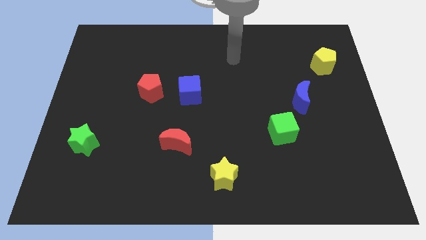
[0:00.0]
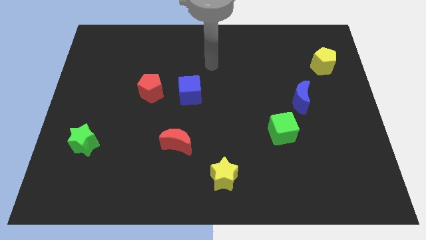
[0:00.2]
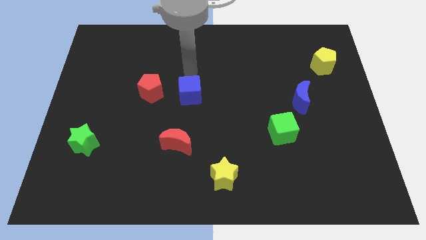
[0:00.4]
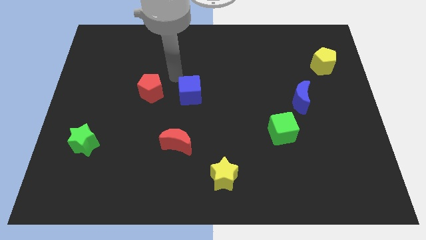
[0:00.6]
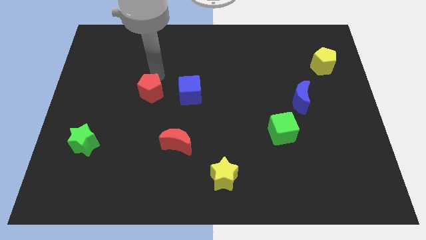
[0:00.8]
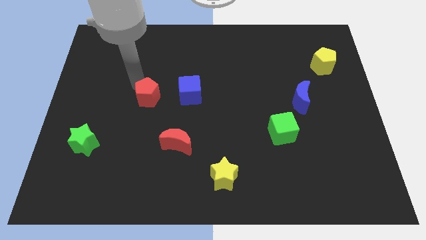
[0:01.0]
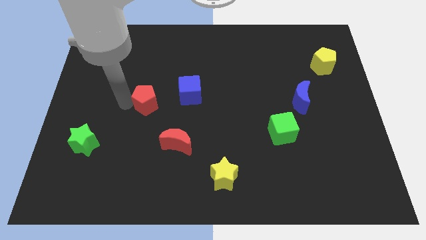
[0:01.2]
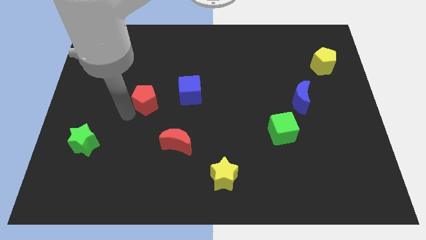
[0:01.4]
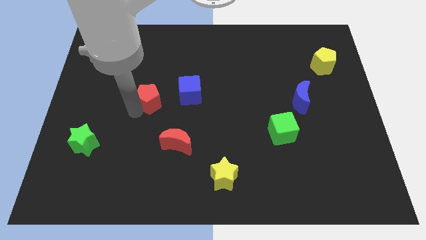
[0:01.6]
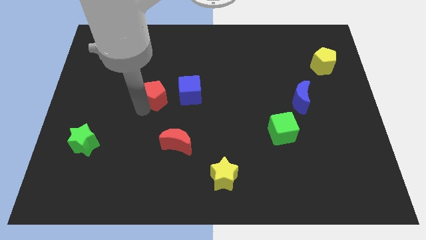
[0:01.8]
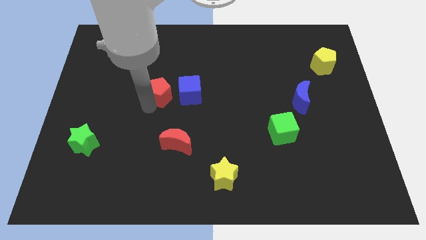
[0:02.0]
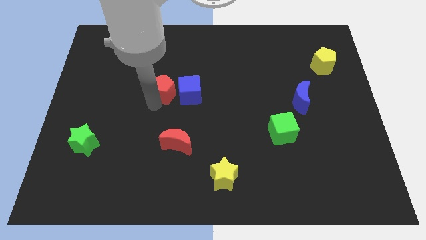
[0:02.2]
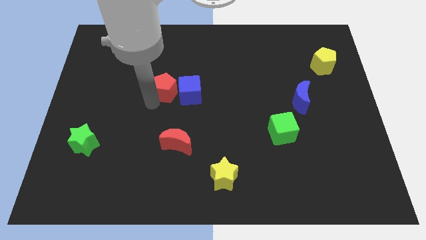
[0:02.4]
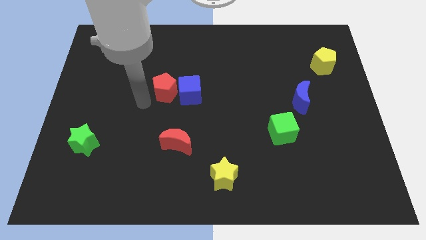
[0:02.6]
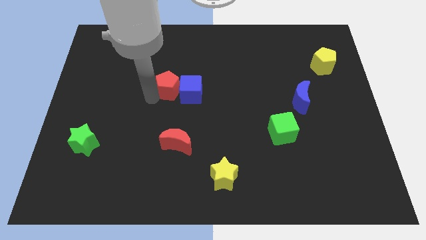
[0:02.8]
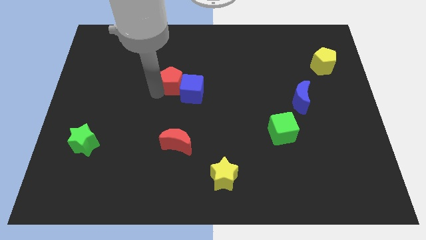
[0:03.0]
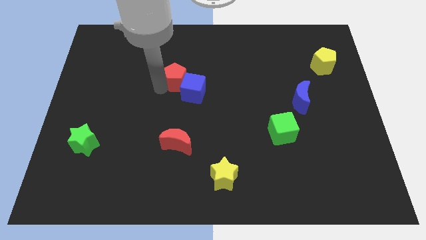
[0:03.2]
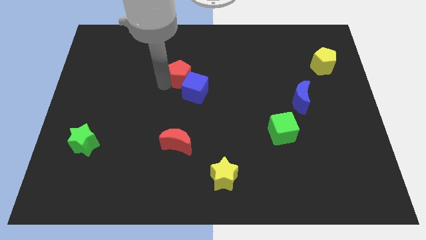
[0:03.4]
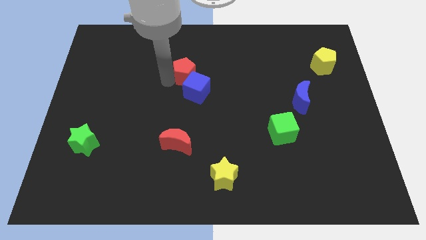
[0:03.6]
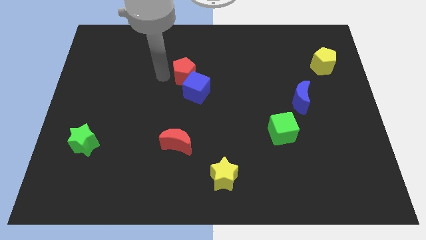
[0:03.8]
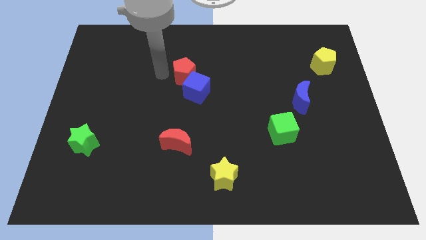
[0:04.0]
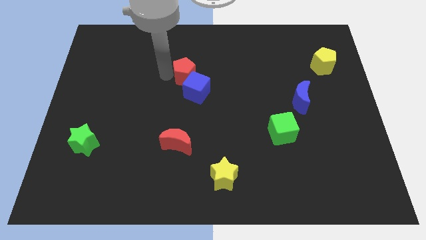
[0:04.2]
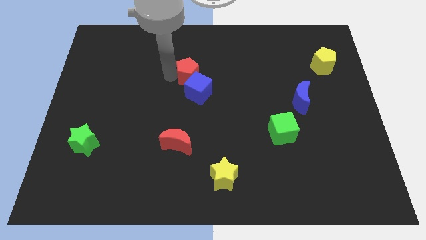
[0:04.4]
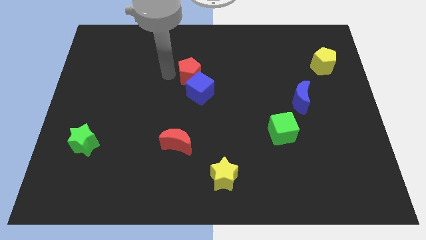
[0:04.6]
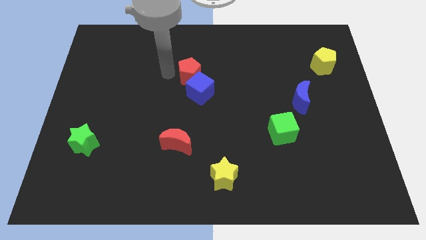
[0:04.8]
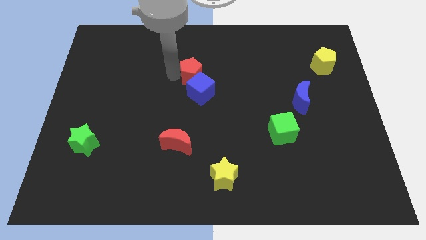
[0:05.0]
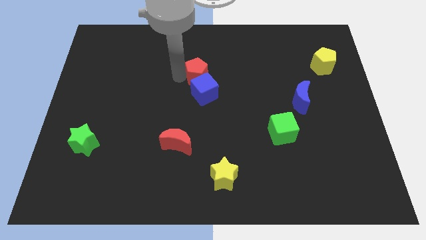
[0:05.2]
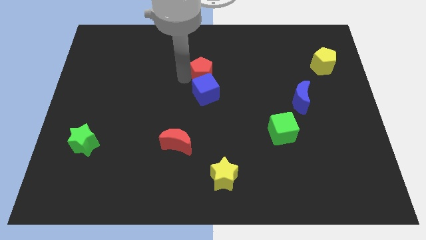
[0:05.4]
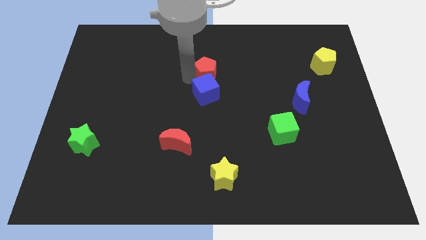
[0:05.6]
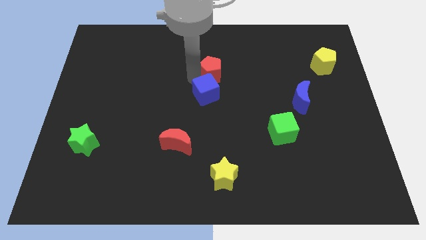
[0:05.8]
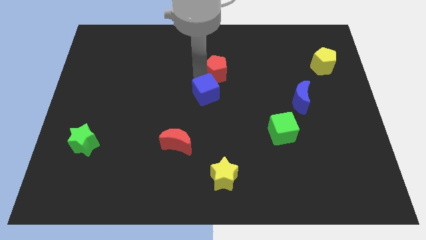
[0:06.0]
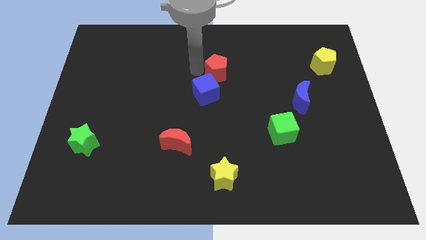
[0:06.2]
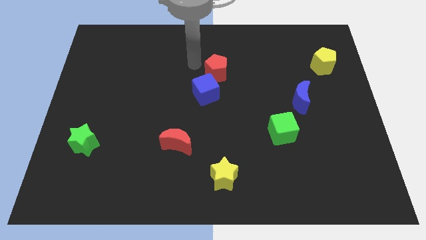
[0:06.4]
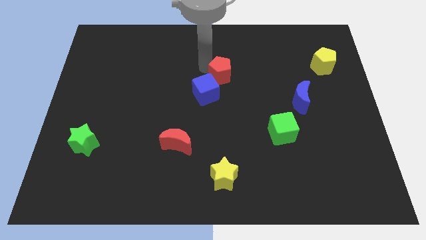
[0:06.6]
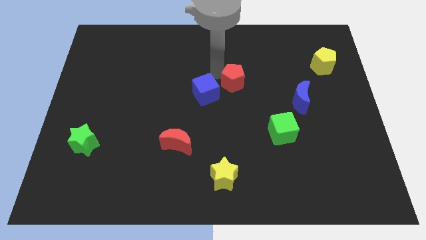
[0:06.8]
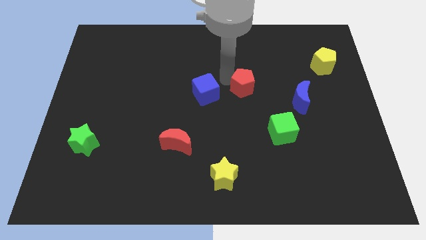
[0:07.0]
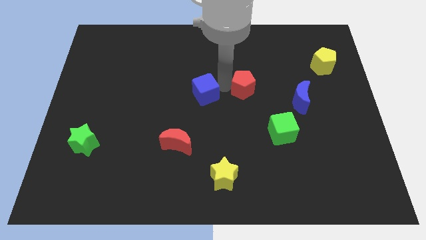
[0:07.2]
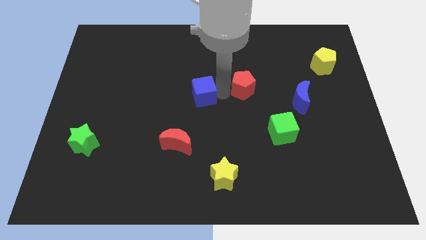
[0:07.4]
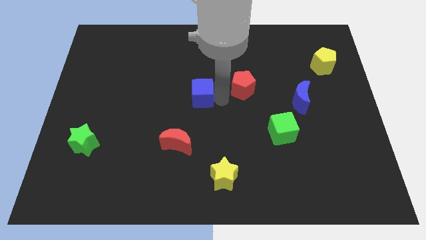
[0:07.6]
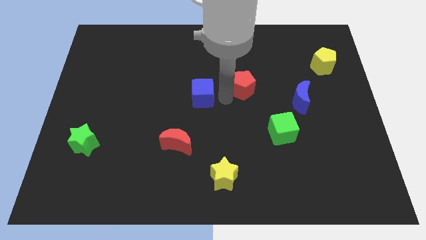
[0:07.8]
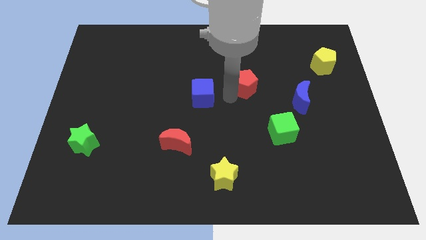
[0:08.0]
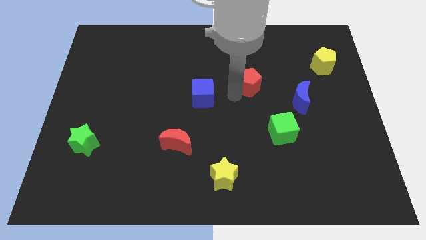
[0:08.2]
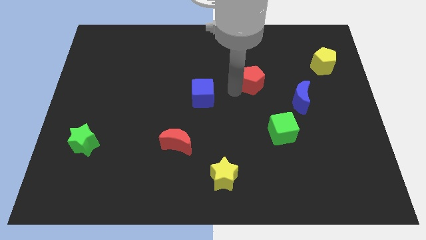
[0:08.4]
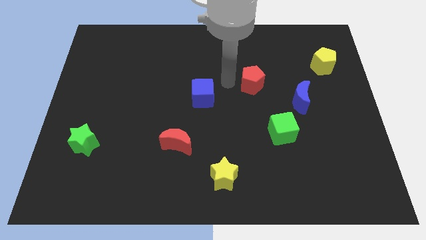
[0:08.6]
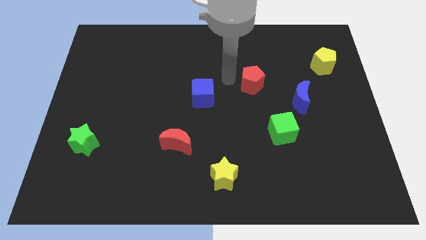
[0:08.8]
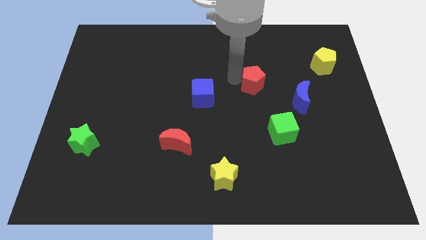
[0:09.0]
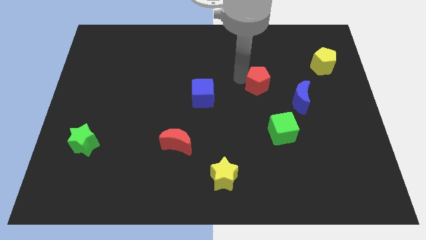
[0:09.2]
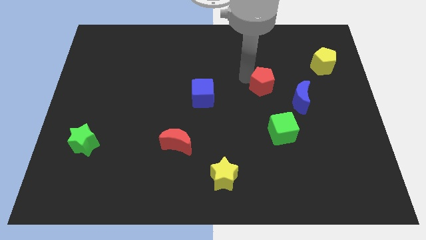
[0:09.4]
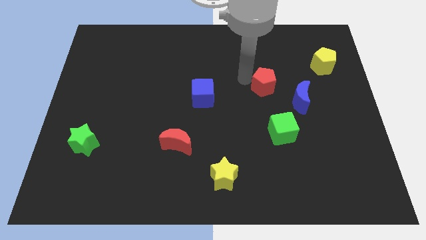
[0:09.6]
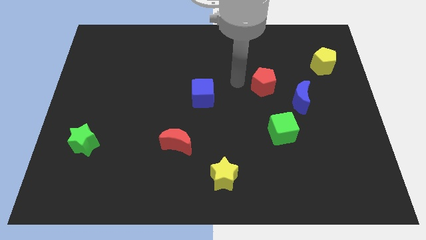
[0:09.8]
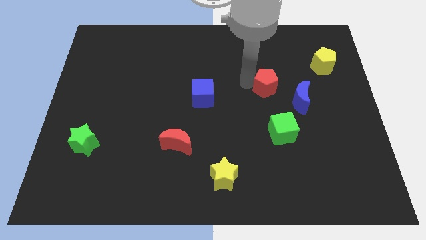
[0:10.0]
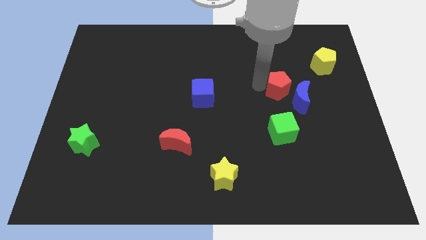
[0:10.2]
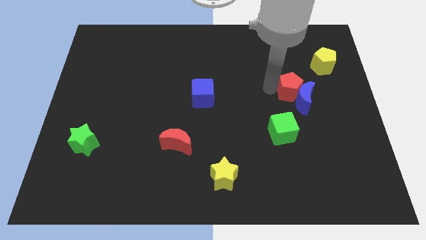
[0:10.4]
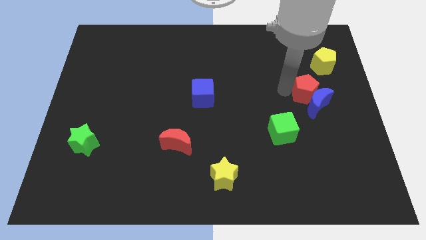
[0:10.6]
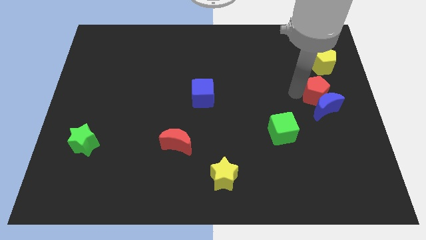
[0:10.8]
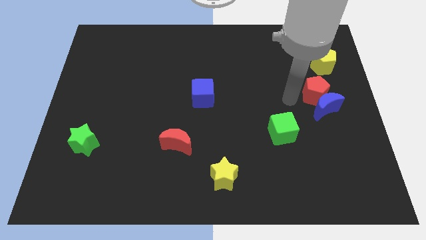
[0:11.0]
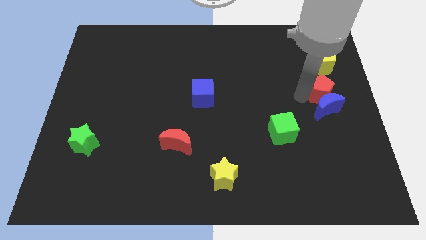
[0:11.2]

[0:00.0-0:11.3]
move the red pentagon to the right side of the board

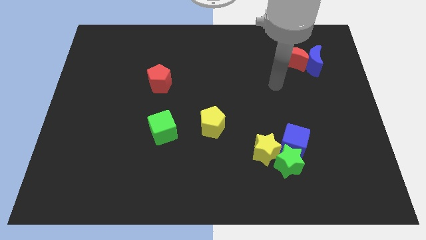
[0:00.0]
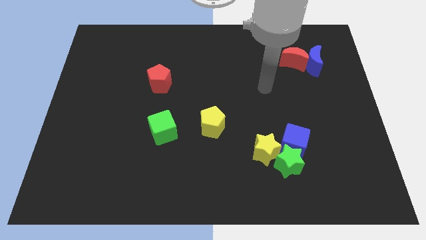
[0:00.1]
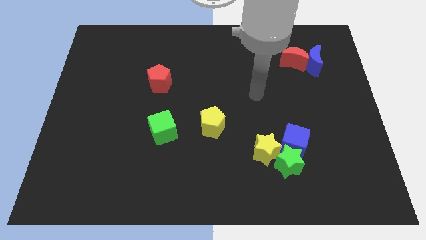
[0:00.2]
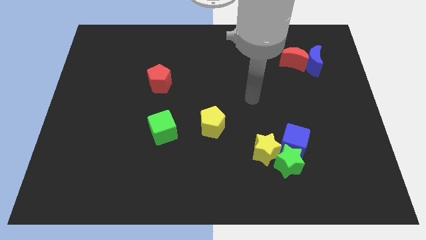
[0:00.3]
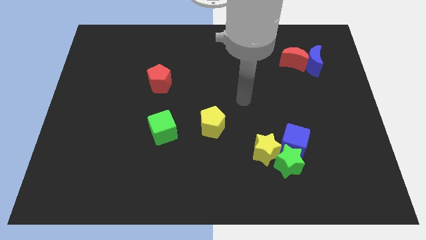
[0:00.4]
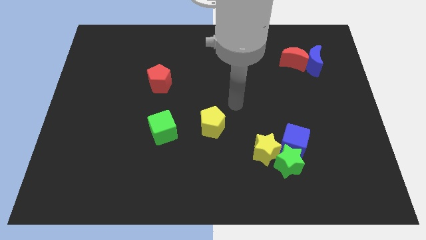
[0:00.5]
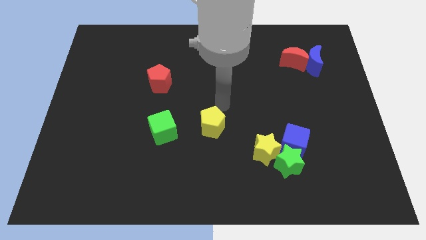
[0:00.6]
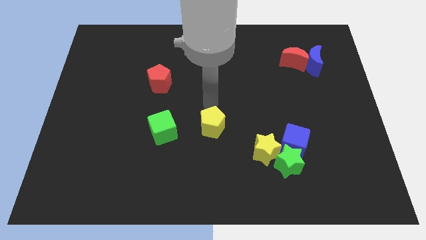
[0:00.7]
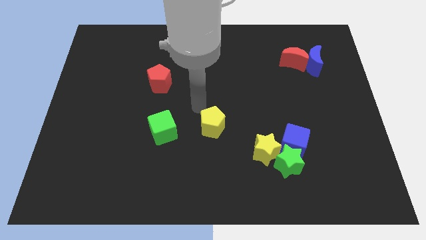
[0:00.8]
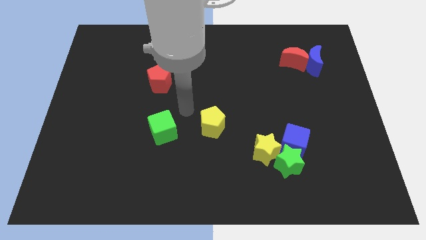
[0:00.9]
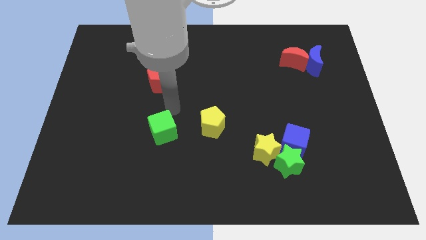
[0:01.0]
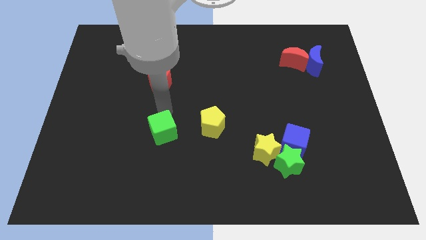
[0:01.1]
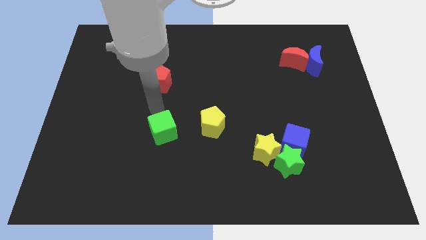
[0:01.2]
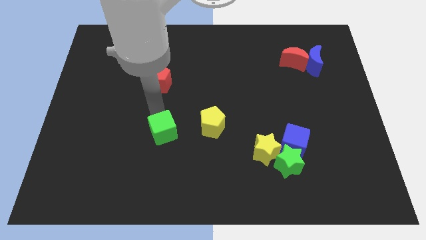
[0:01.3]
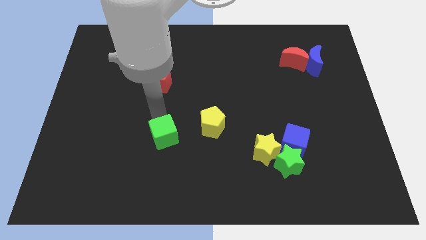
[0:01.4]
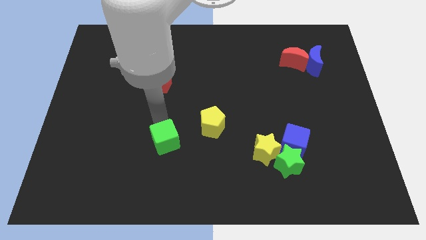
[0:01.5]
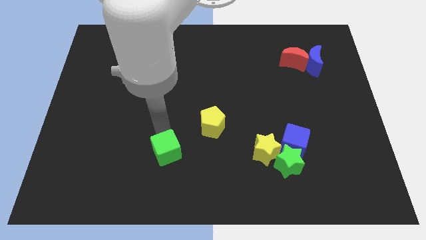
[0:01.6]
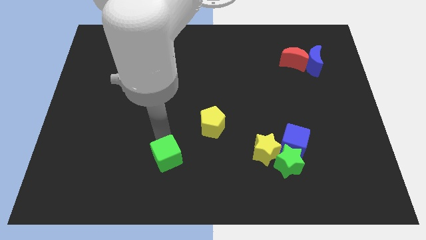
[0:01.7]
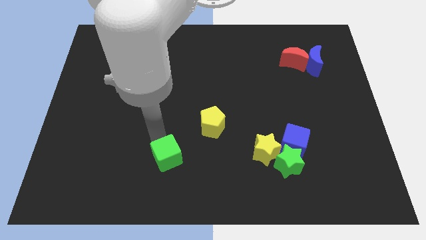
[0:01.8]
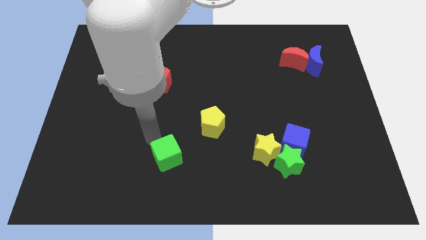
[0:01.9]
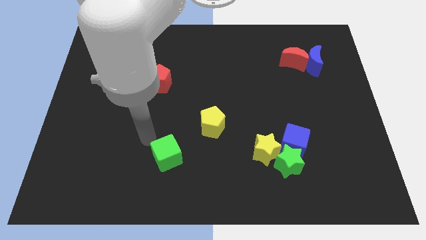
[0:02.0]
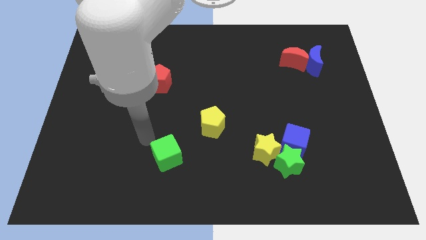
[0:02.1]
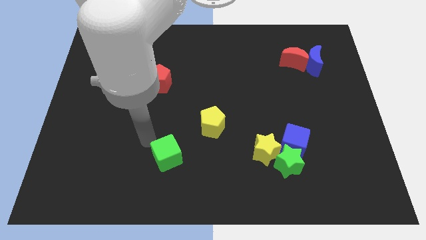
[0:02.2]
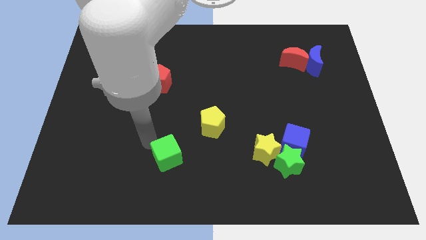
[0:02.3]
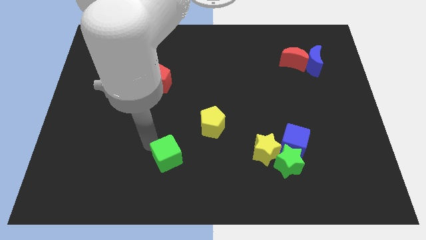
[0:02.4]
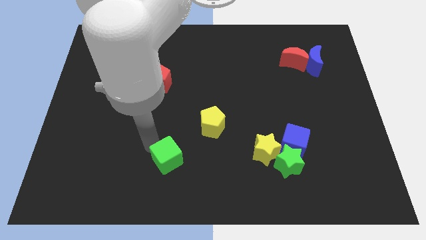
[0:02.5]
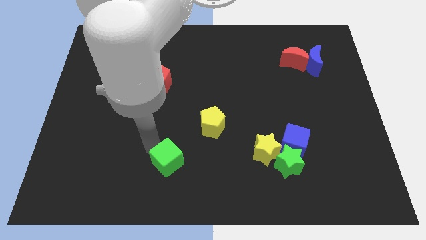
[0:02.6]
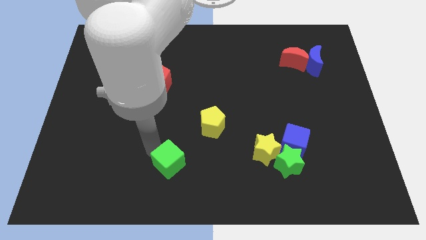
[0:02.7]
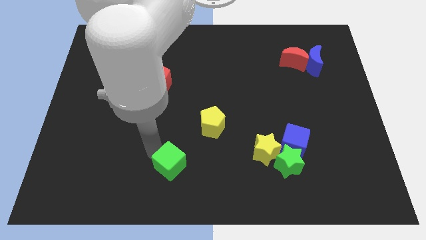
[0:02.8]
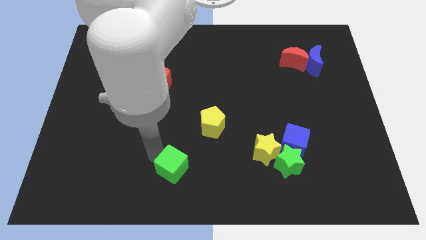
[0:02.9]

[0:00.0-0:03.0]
move the green cube to the bottom
